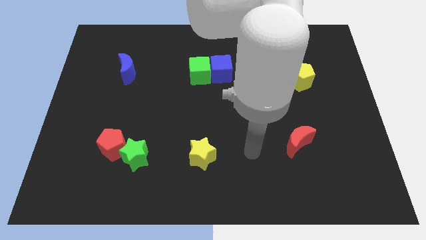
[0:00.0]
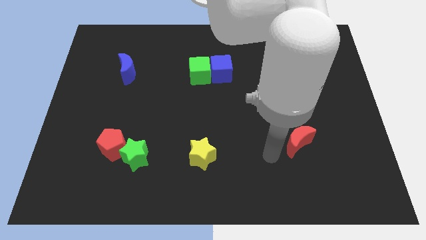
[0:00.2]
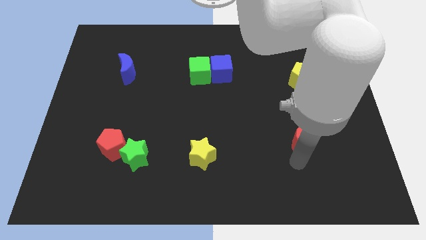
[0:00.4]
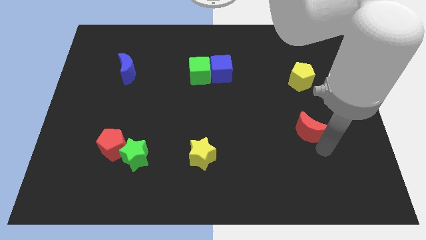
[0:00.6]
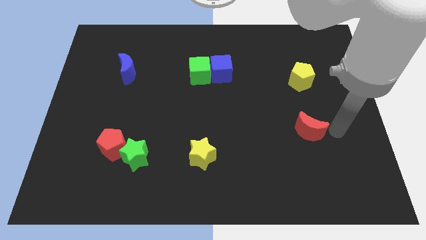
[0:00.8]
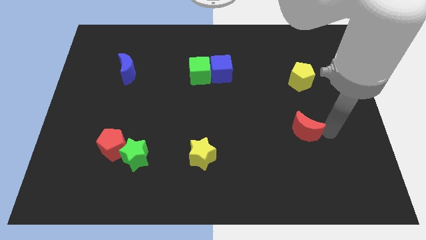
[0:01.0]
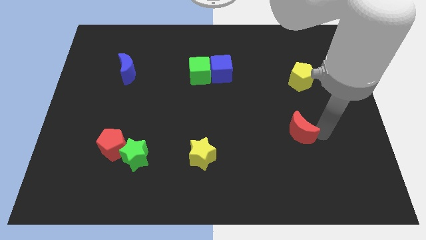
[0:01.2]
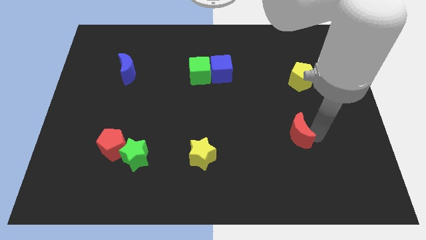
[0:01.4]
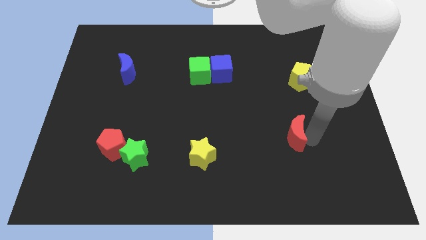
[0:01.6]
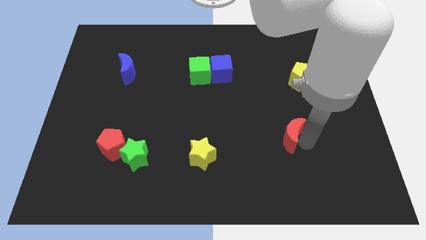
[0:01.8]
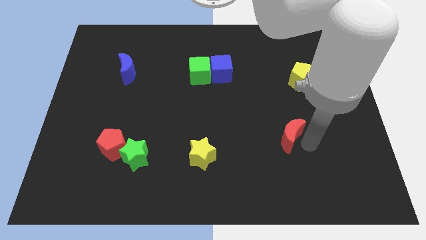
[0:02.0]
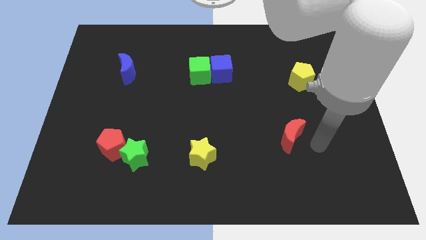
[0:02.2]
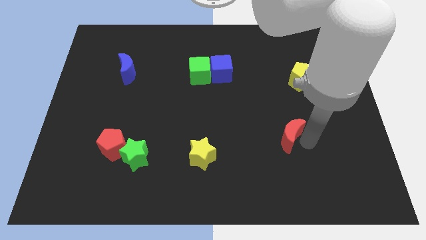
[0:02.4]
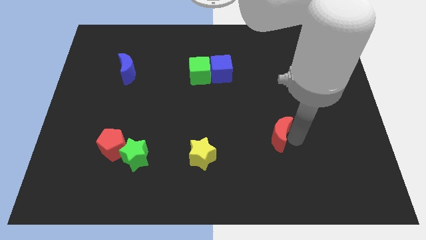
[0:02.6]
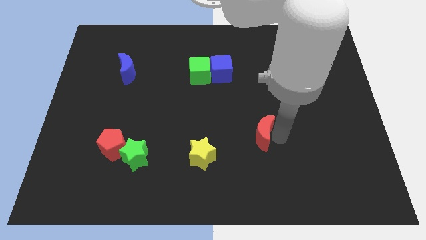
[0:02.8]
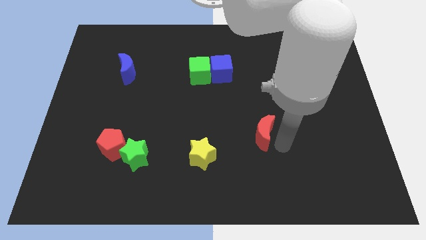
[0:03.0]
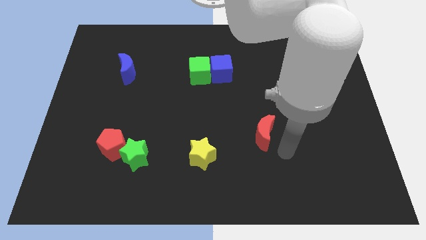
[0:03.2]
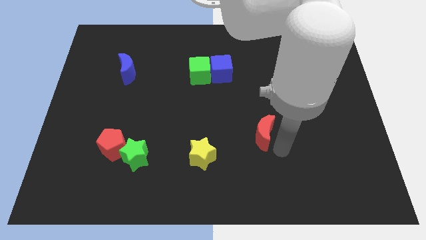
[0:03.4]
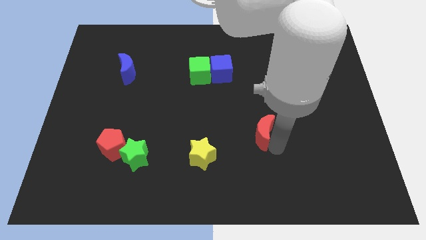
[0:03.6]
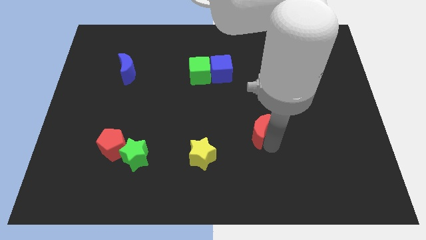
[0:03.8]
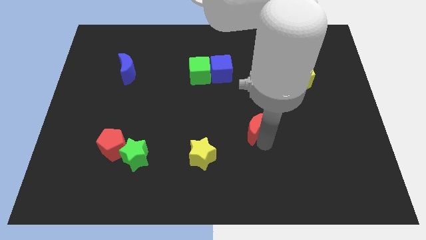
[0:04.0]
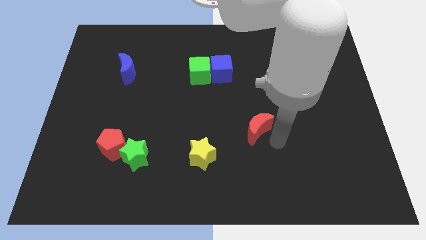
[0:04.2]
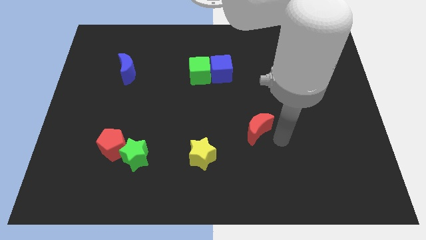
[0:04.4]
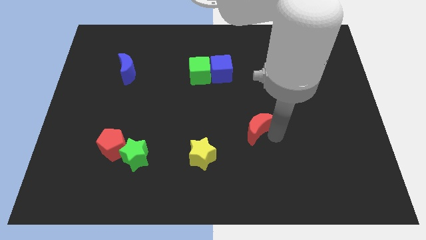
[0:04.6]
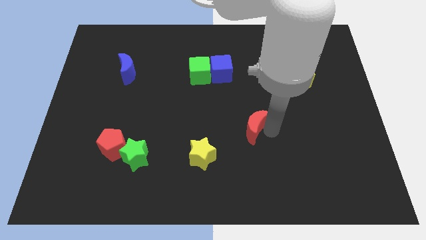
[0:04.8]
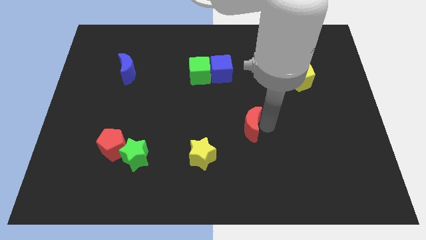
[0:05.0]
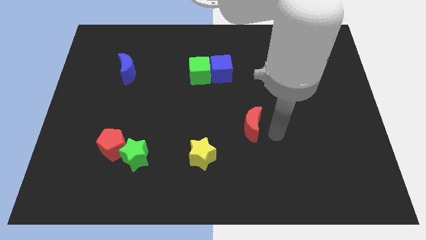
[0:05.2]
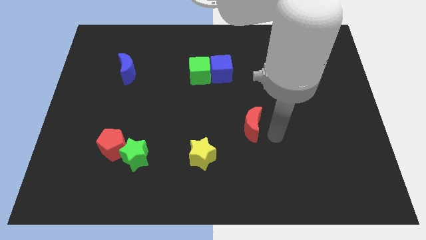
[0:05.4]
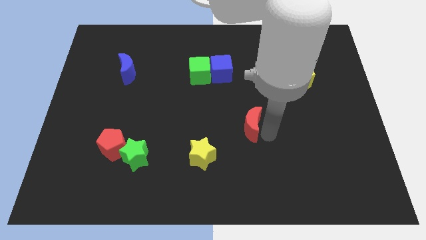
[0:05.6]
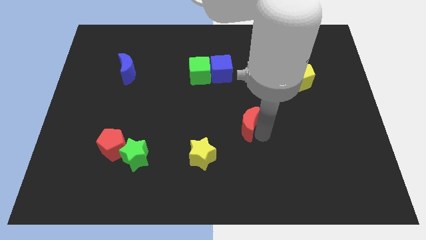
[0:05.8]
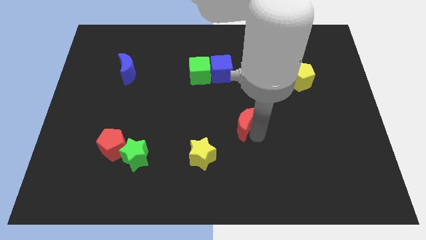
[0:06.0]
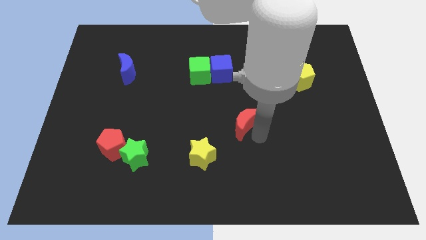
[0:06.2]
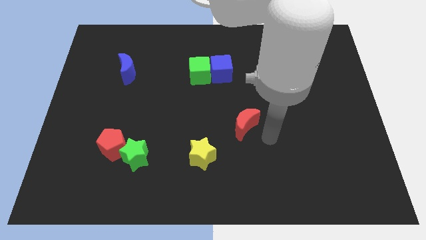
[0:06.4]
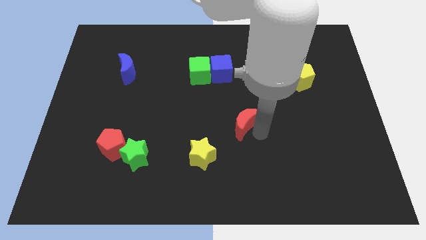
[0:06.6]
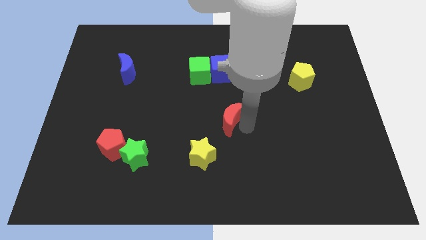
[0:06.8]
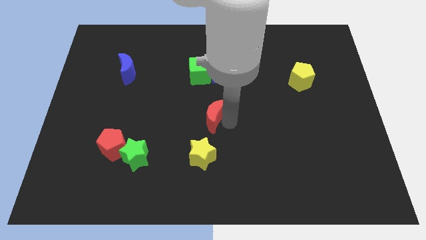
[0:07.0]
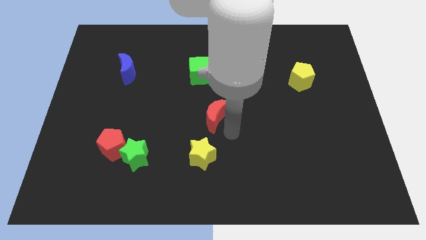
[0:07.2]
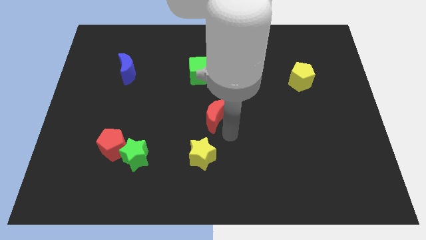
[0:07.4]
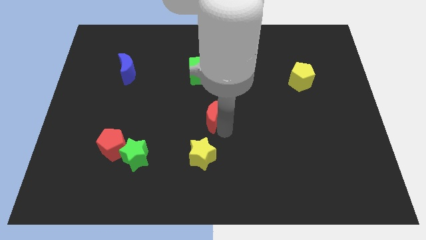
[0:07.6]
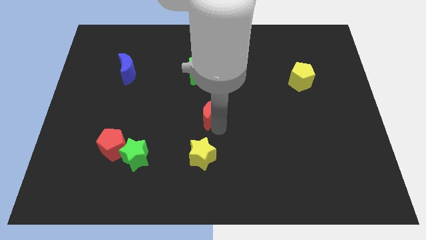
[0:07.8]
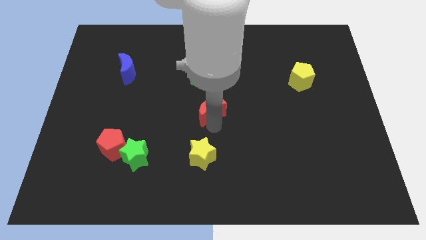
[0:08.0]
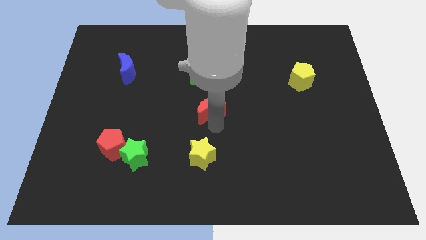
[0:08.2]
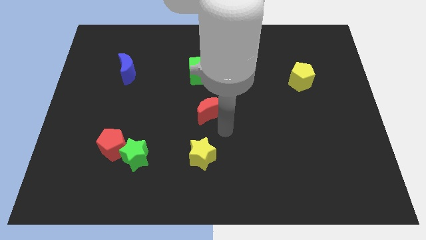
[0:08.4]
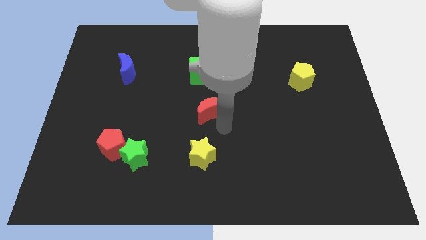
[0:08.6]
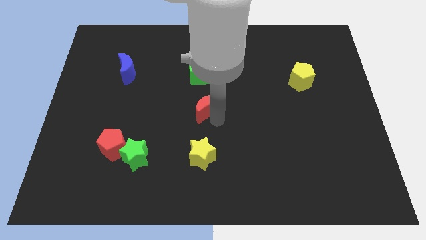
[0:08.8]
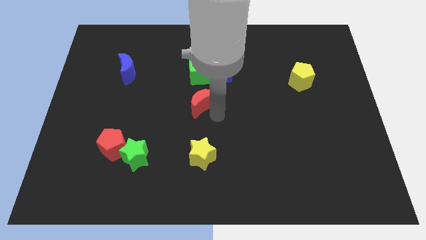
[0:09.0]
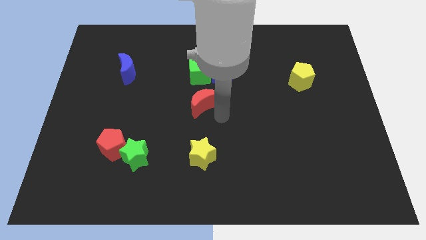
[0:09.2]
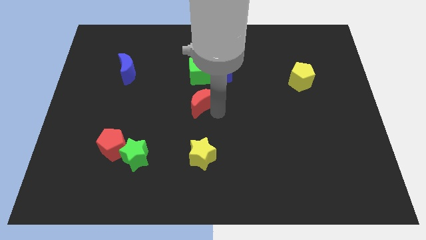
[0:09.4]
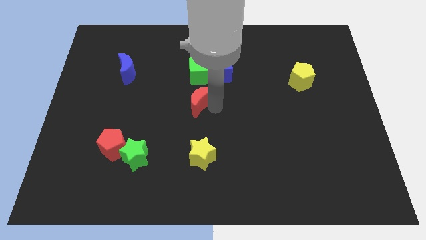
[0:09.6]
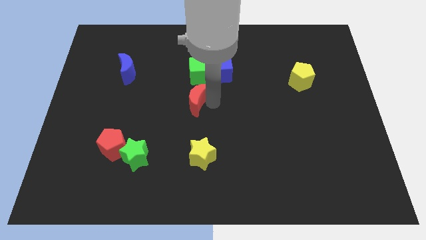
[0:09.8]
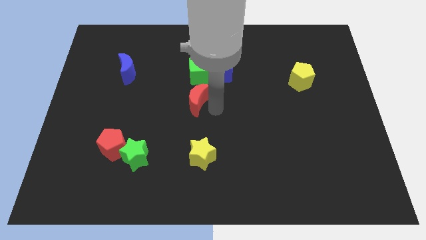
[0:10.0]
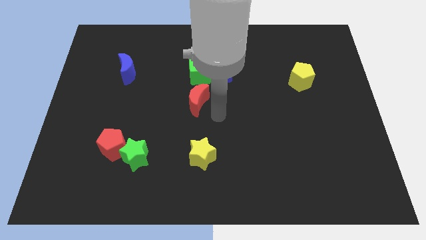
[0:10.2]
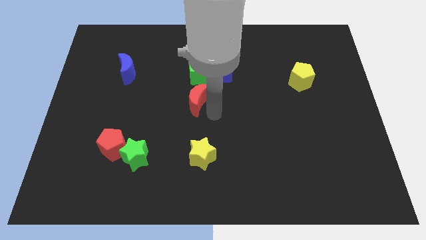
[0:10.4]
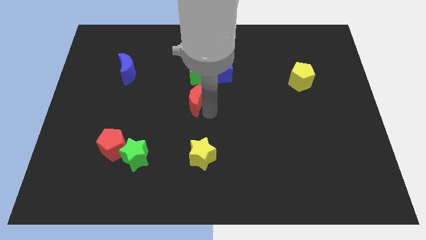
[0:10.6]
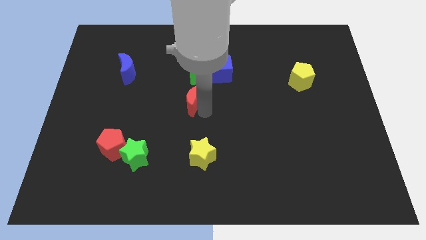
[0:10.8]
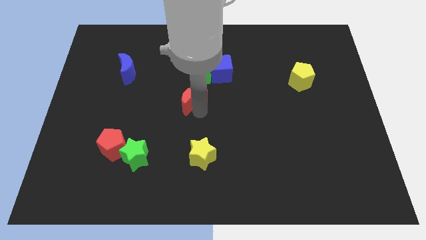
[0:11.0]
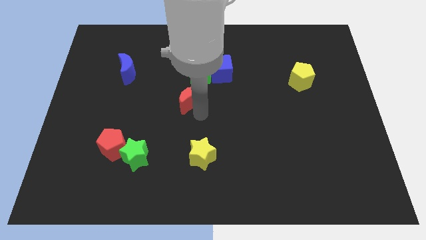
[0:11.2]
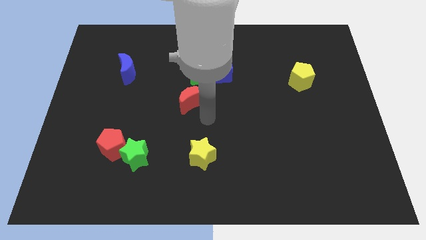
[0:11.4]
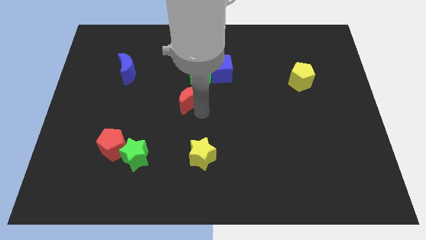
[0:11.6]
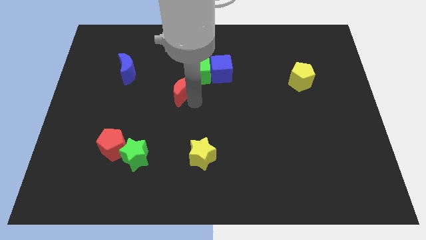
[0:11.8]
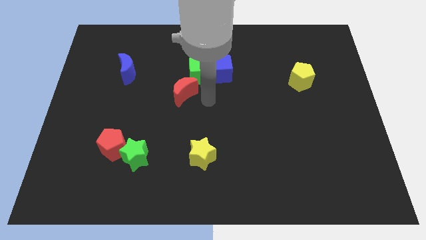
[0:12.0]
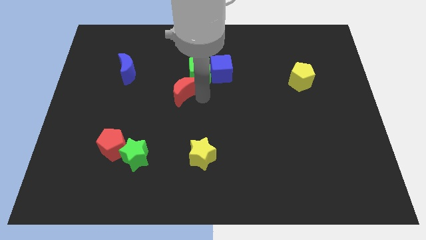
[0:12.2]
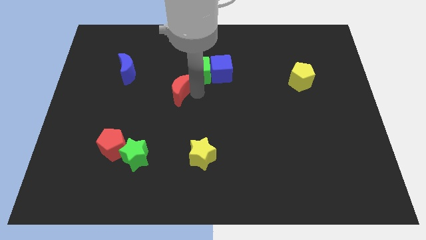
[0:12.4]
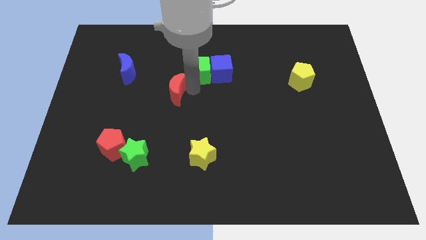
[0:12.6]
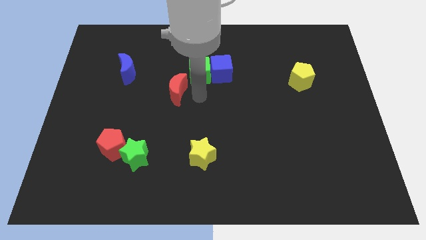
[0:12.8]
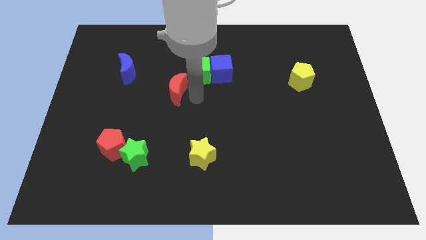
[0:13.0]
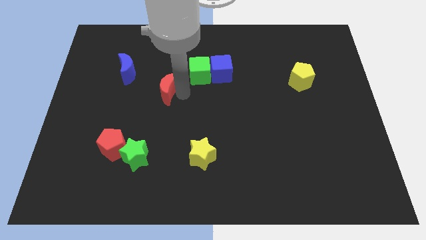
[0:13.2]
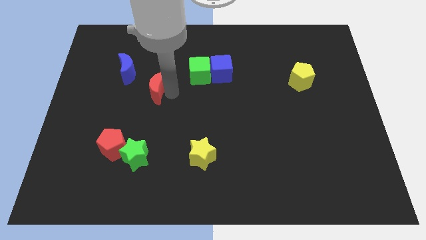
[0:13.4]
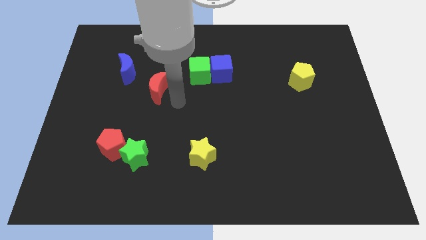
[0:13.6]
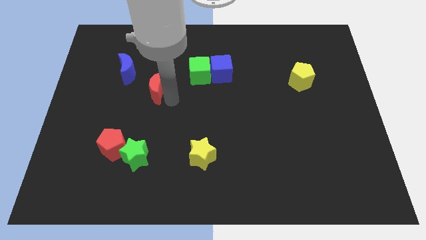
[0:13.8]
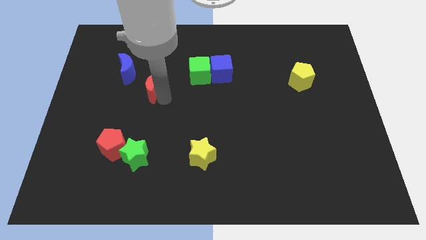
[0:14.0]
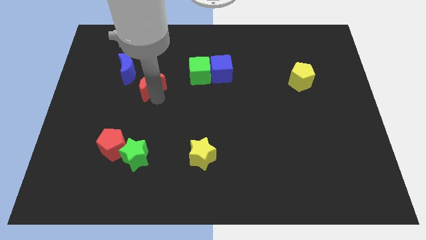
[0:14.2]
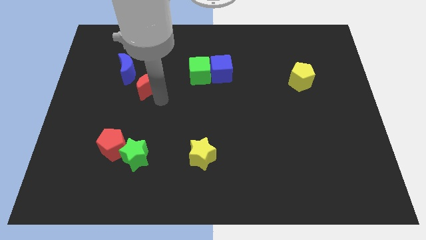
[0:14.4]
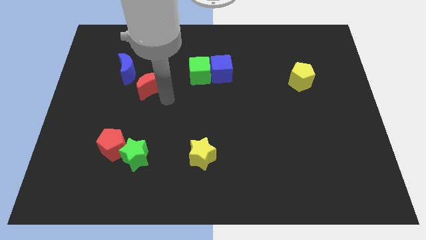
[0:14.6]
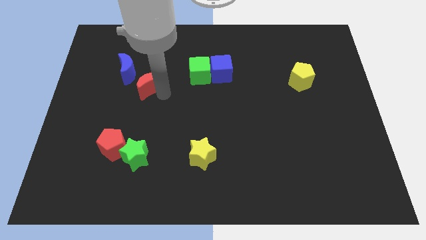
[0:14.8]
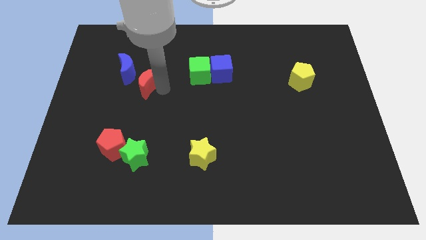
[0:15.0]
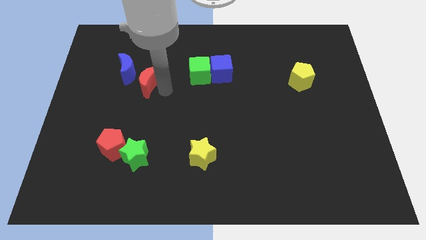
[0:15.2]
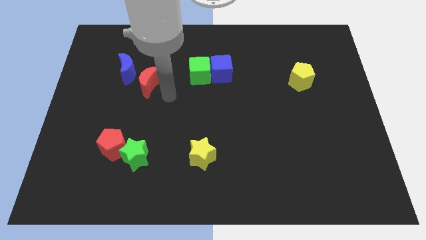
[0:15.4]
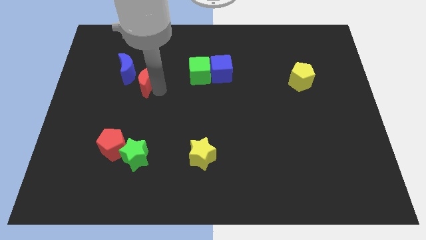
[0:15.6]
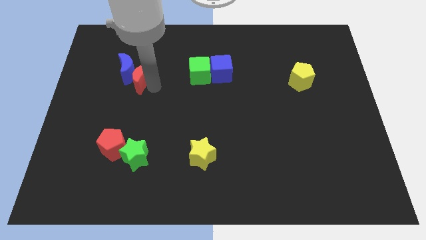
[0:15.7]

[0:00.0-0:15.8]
put the red moon towards the blue moon
